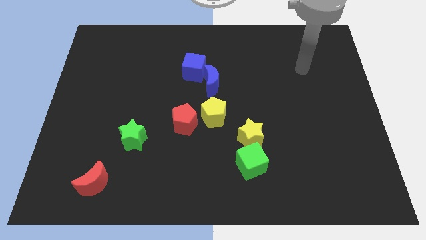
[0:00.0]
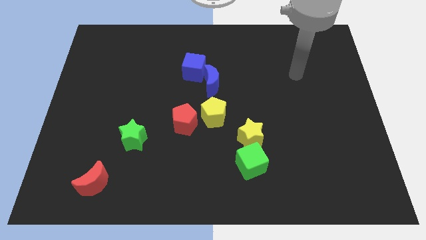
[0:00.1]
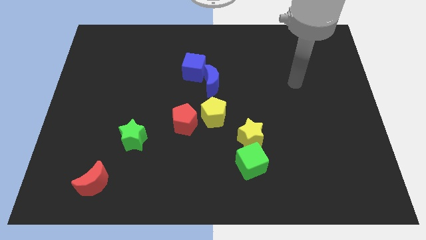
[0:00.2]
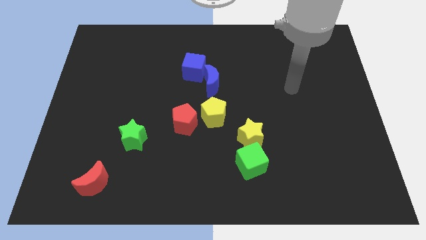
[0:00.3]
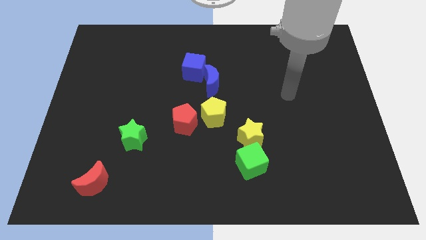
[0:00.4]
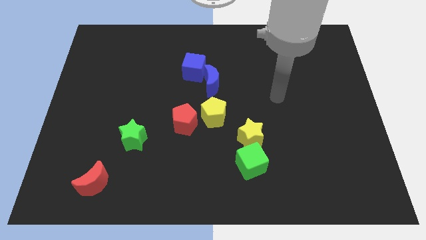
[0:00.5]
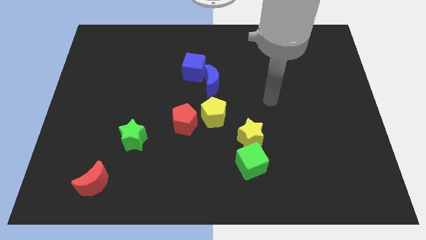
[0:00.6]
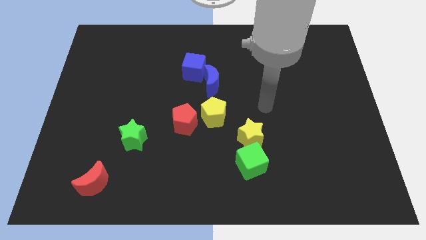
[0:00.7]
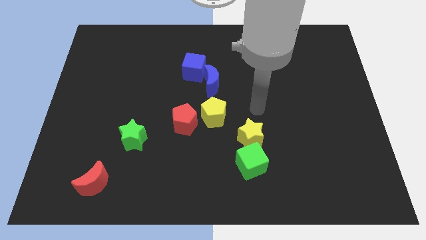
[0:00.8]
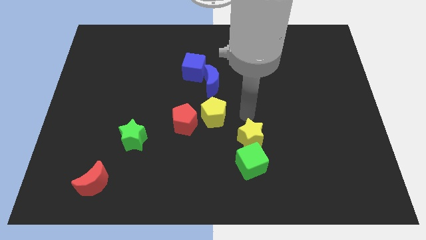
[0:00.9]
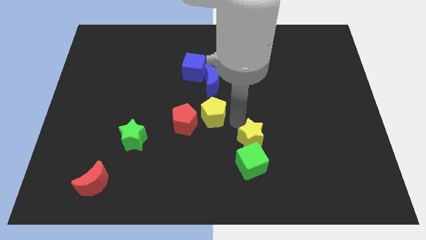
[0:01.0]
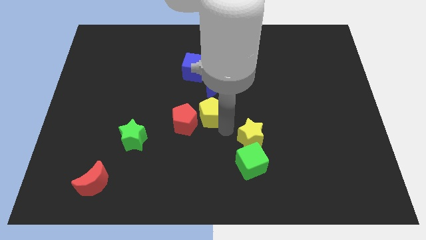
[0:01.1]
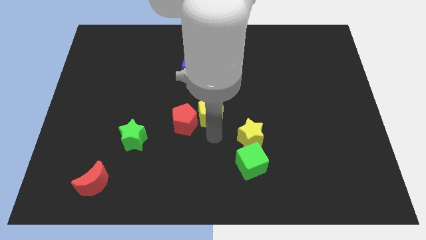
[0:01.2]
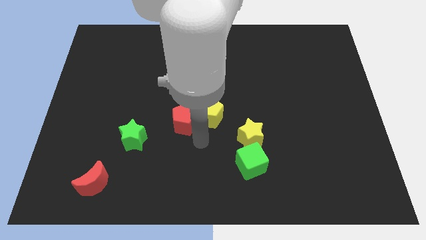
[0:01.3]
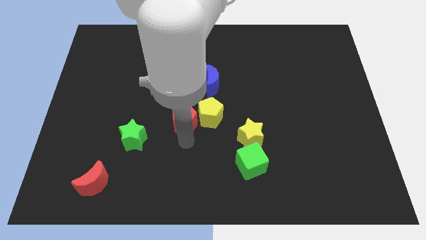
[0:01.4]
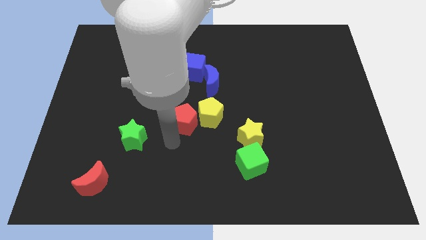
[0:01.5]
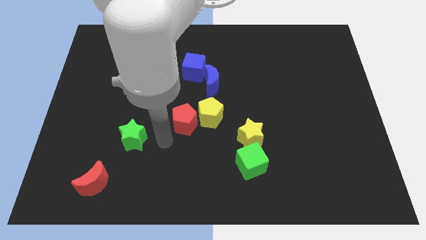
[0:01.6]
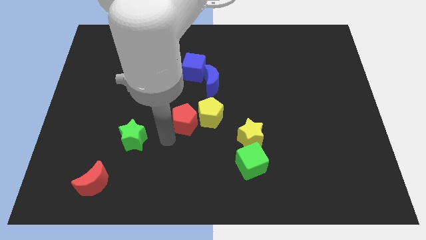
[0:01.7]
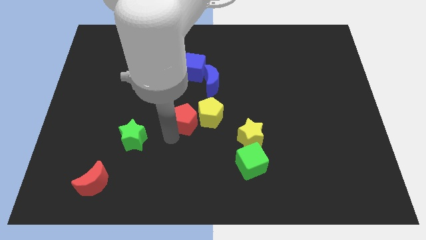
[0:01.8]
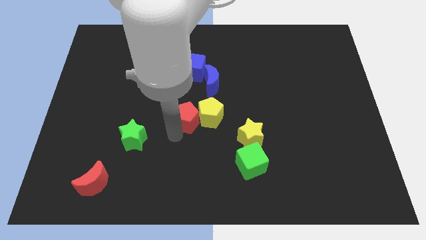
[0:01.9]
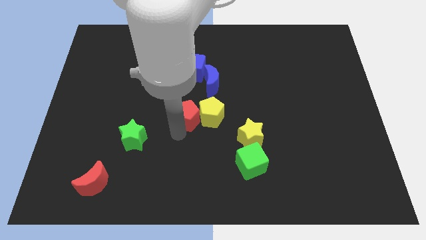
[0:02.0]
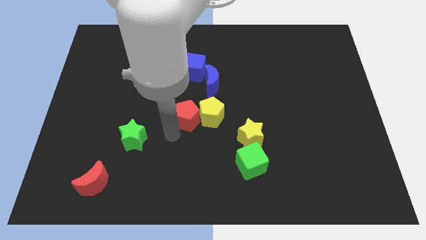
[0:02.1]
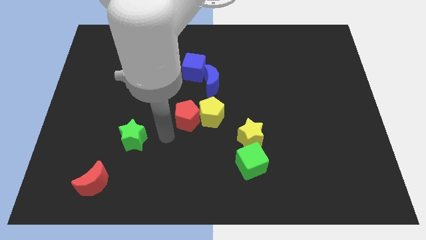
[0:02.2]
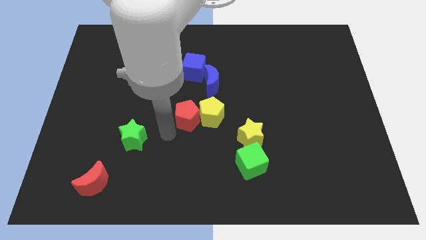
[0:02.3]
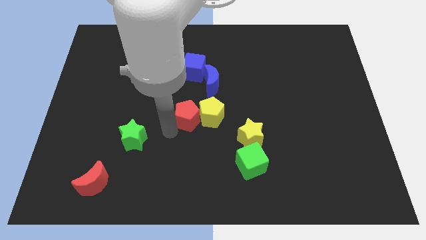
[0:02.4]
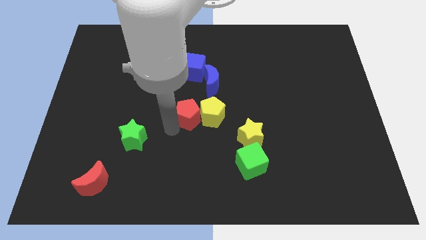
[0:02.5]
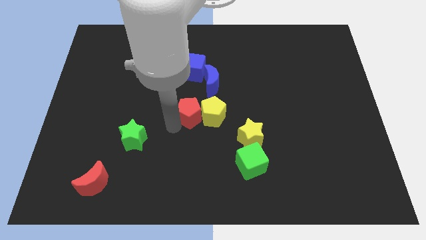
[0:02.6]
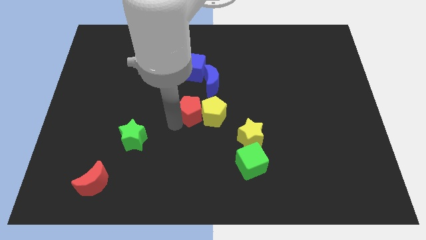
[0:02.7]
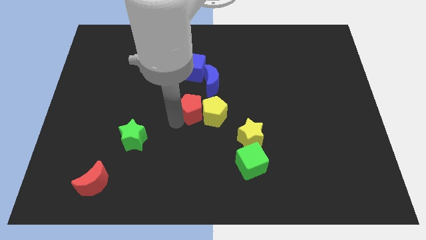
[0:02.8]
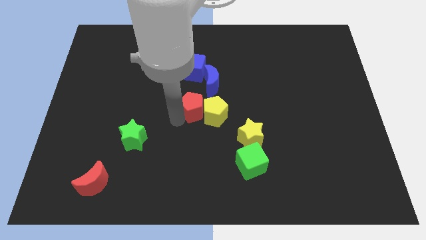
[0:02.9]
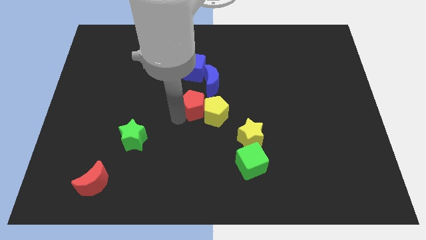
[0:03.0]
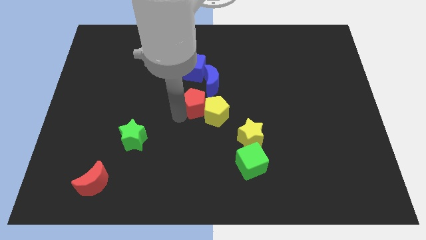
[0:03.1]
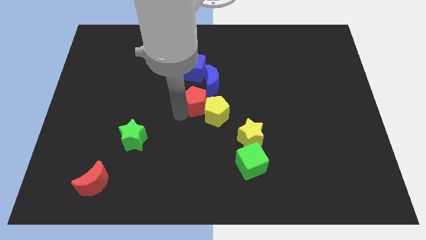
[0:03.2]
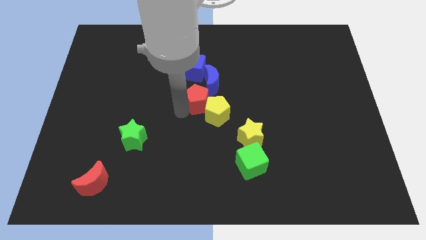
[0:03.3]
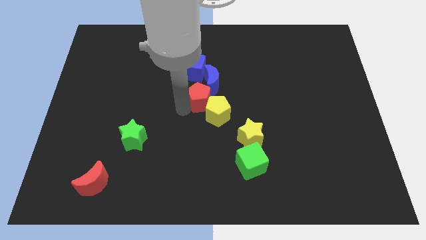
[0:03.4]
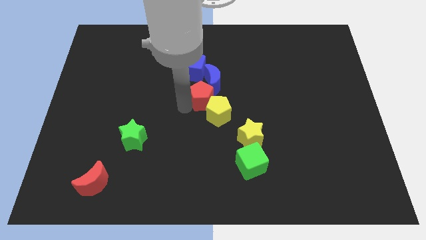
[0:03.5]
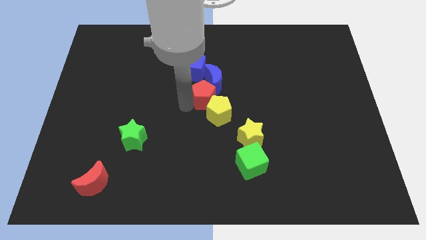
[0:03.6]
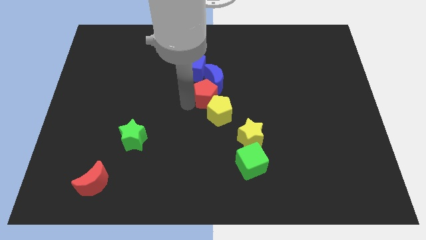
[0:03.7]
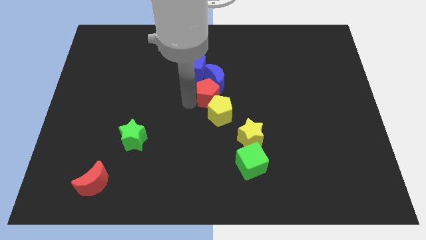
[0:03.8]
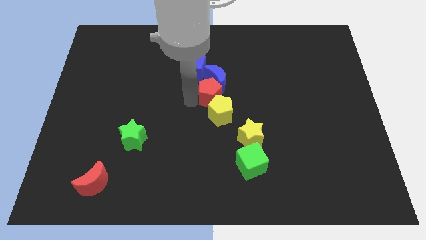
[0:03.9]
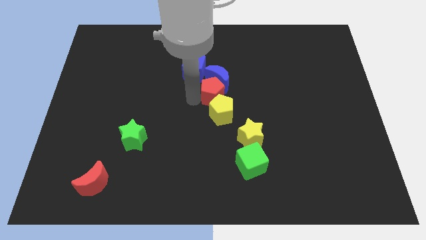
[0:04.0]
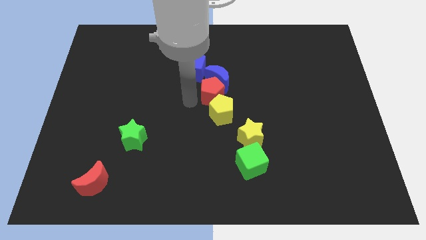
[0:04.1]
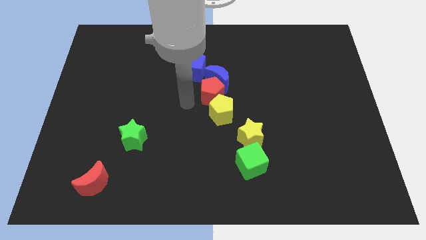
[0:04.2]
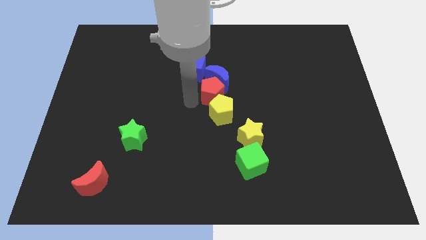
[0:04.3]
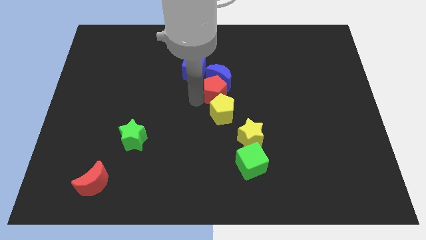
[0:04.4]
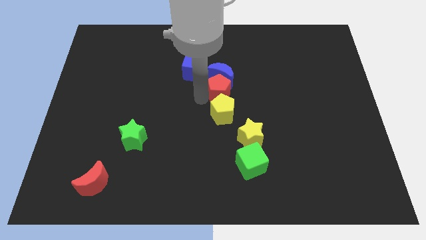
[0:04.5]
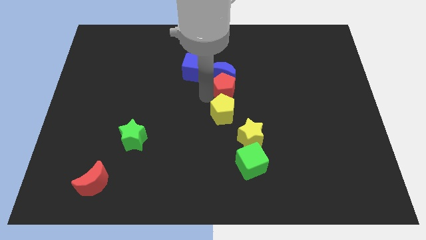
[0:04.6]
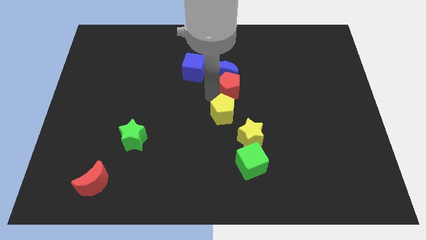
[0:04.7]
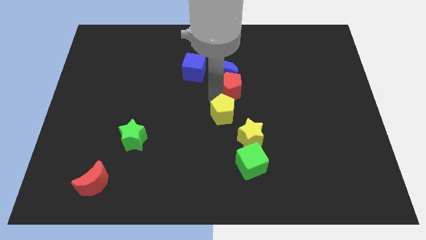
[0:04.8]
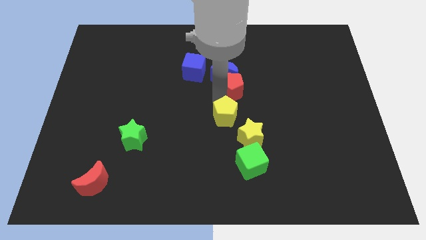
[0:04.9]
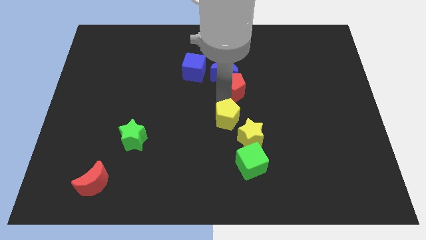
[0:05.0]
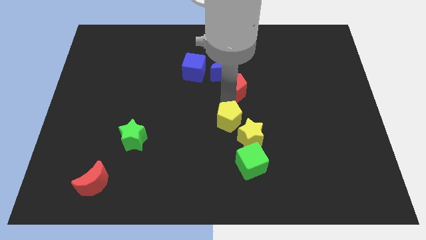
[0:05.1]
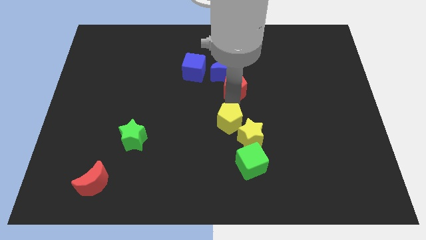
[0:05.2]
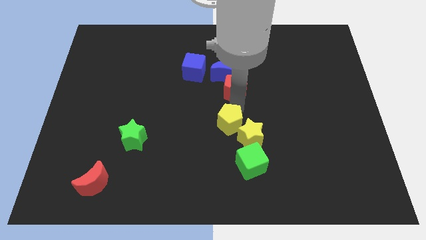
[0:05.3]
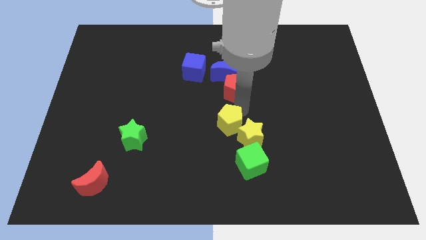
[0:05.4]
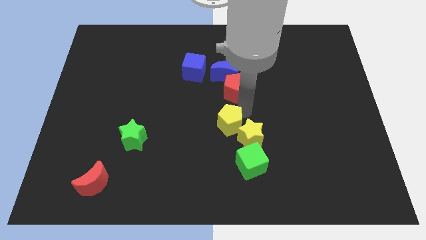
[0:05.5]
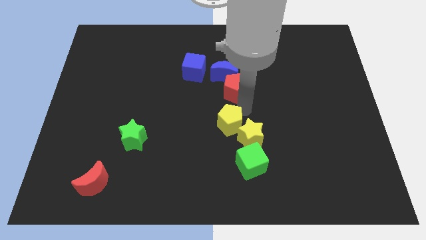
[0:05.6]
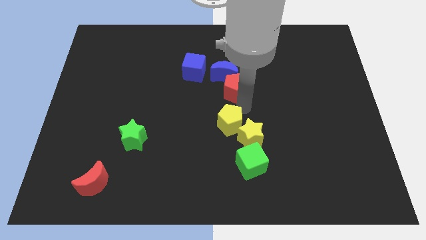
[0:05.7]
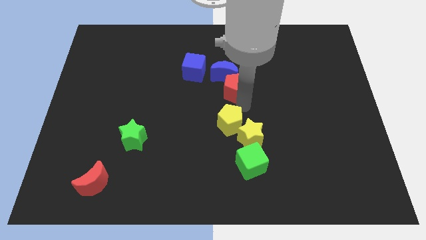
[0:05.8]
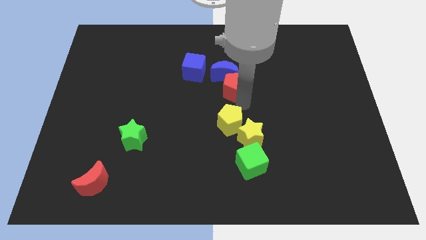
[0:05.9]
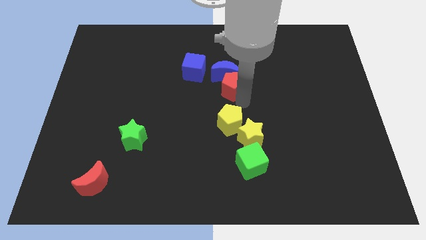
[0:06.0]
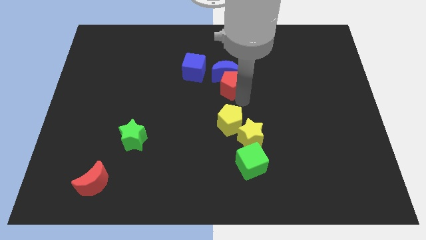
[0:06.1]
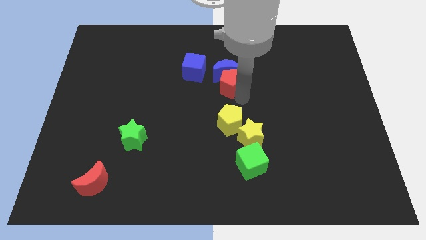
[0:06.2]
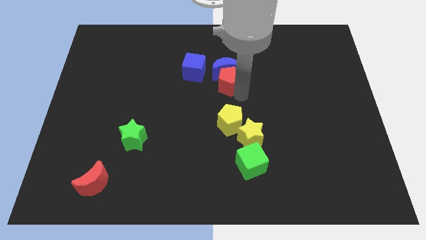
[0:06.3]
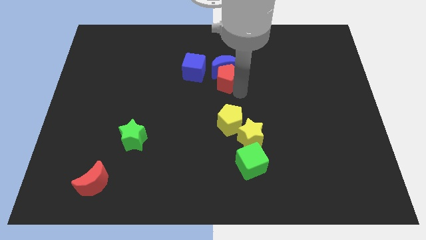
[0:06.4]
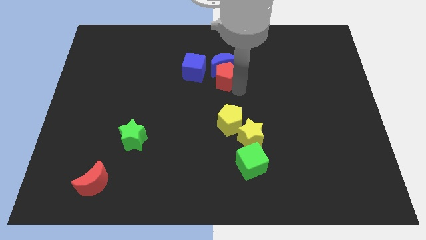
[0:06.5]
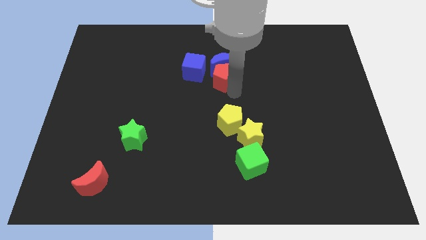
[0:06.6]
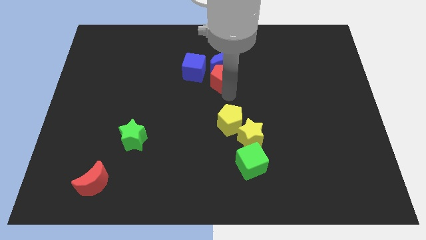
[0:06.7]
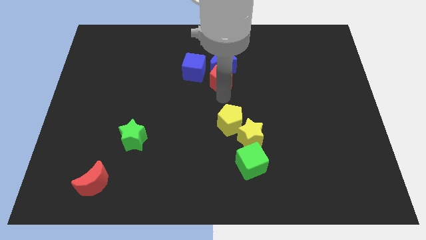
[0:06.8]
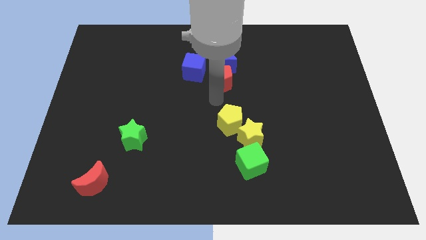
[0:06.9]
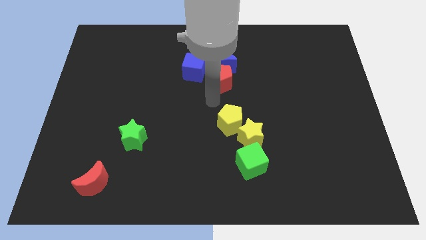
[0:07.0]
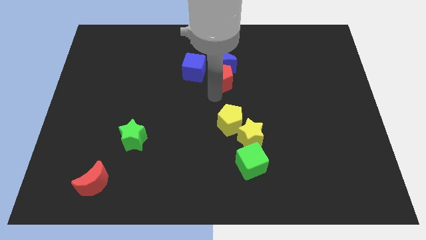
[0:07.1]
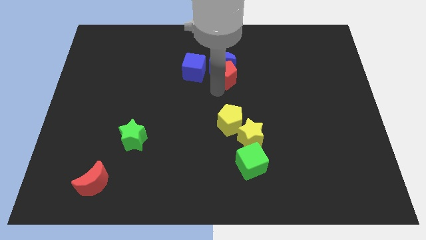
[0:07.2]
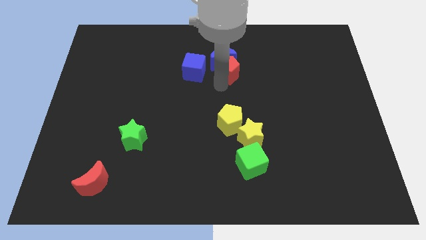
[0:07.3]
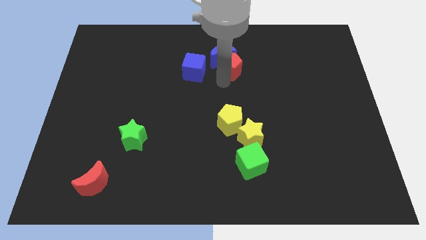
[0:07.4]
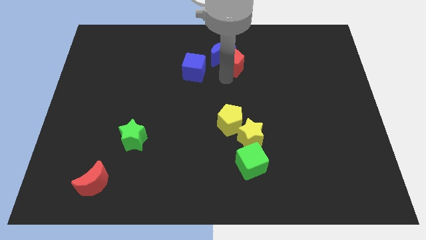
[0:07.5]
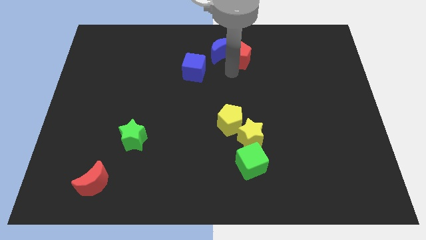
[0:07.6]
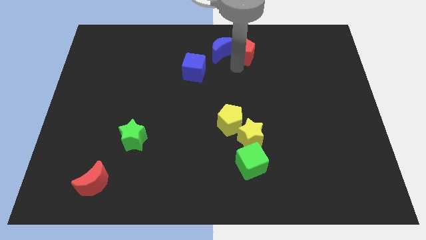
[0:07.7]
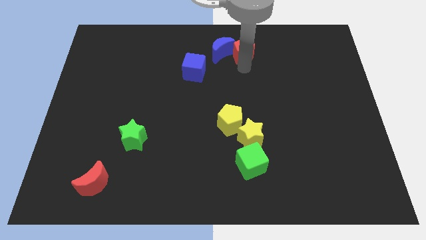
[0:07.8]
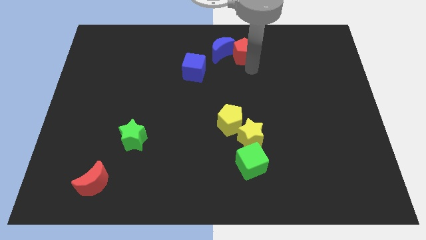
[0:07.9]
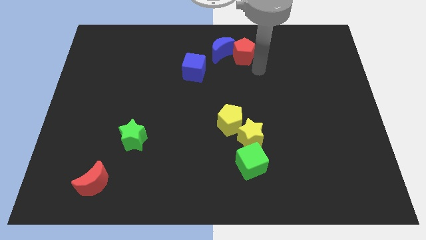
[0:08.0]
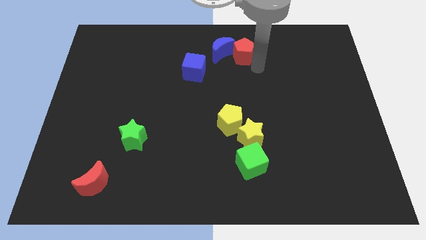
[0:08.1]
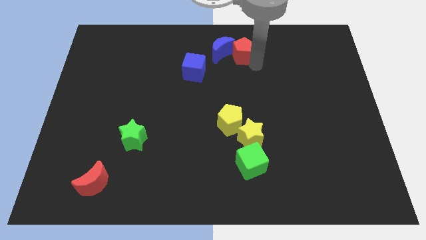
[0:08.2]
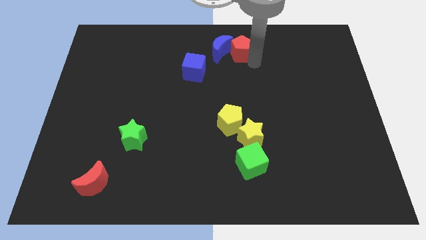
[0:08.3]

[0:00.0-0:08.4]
push the red pentagon to the top side
